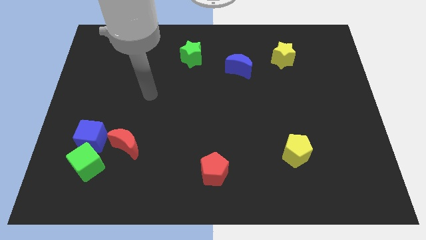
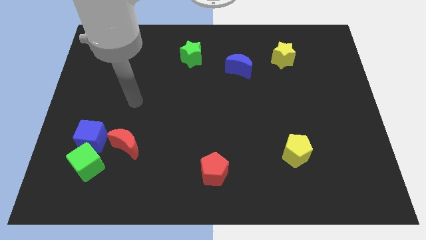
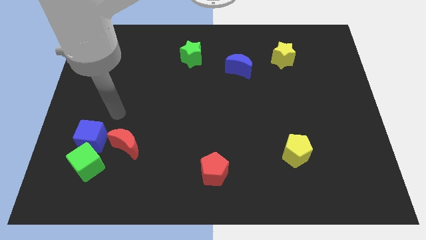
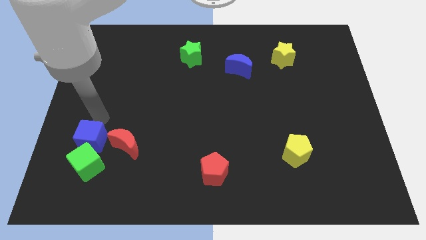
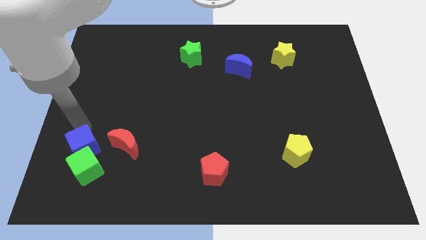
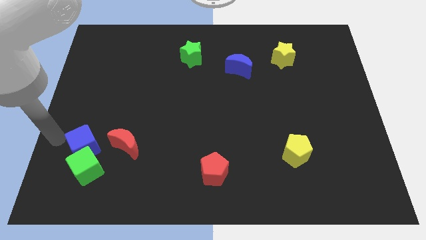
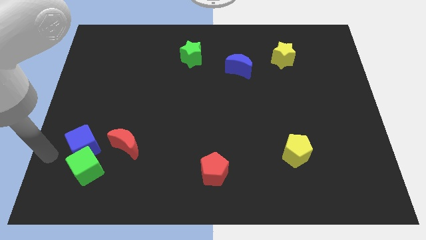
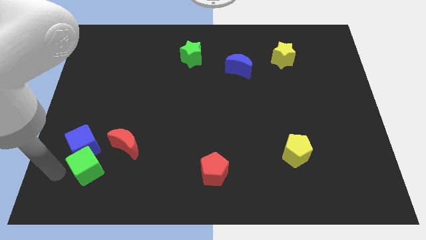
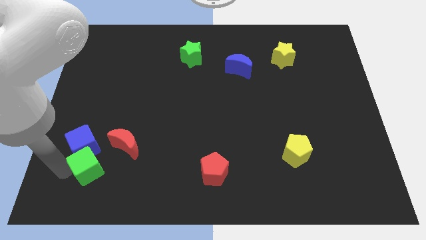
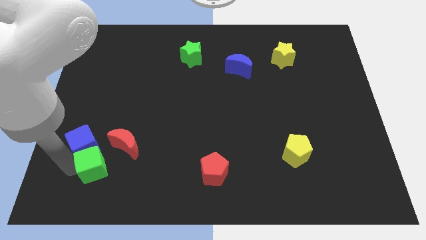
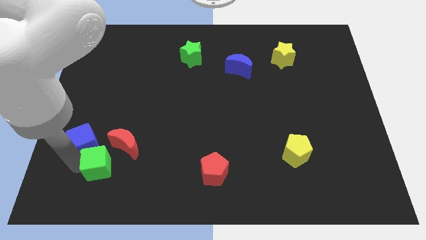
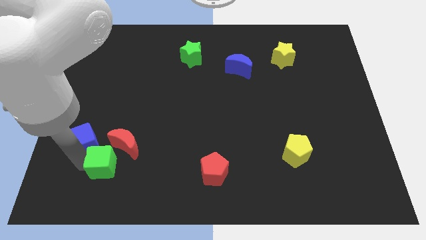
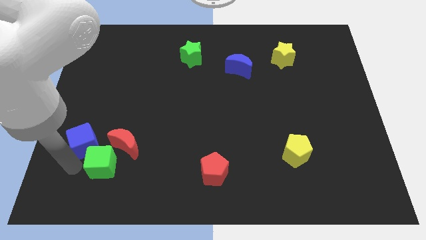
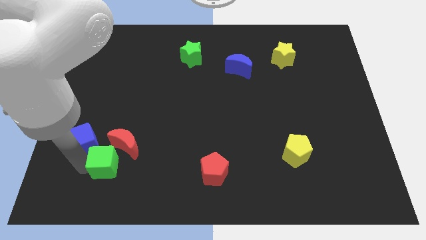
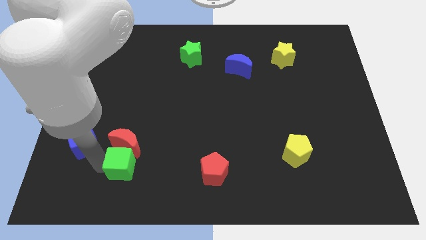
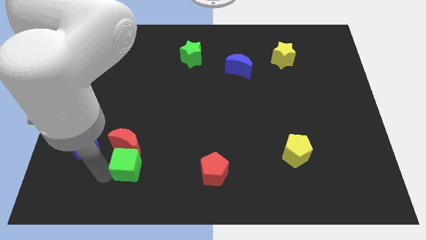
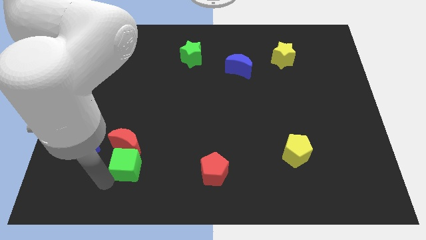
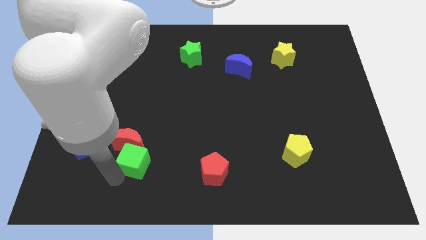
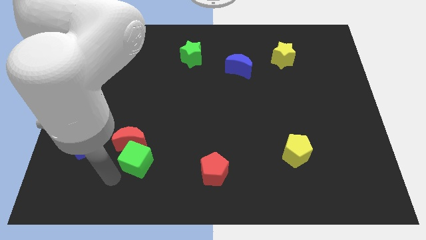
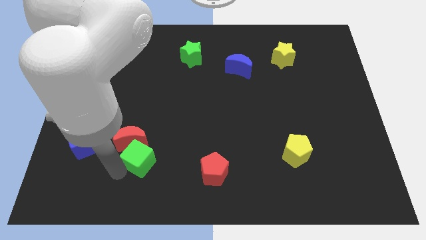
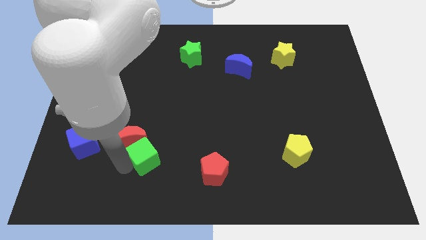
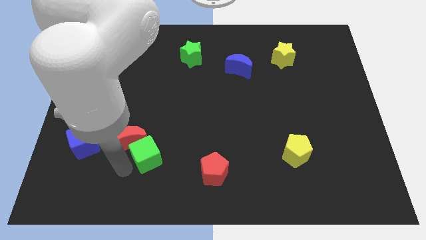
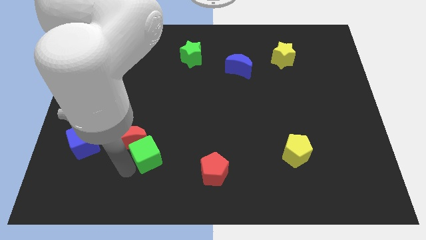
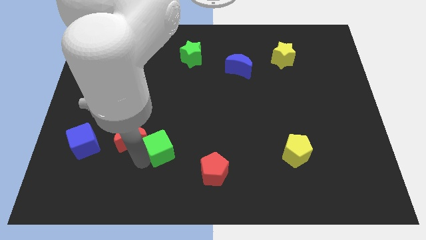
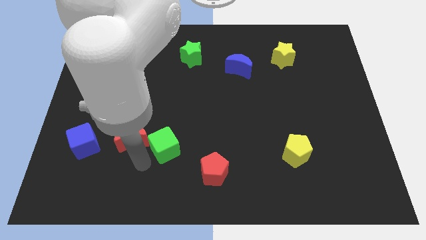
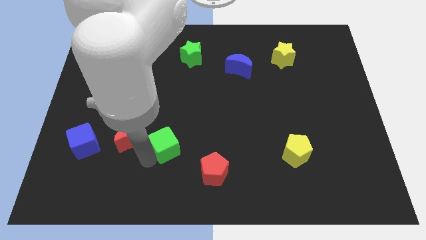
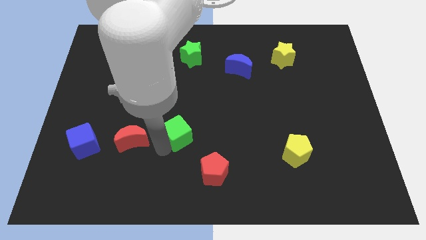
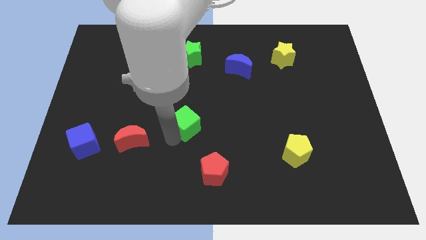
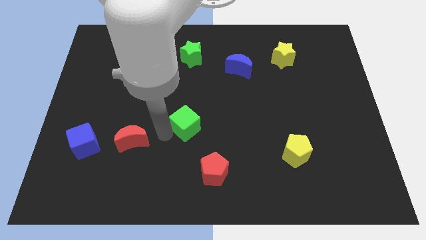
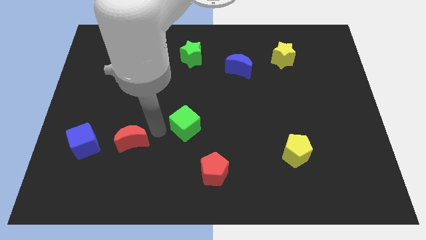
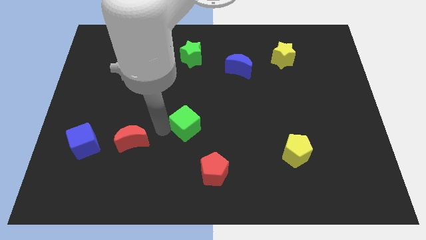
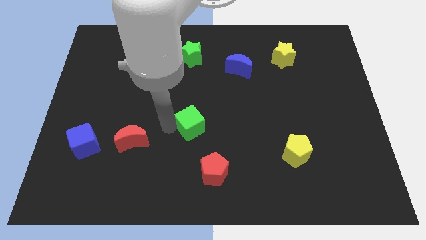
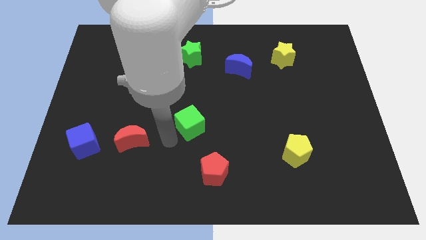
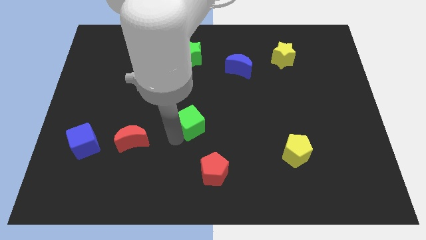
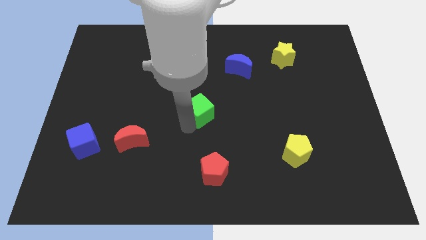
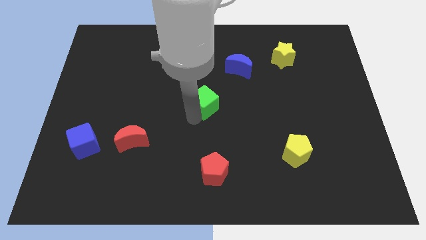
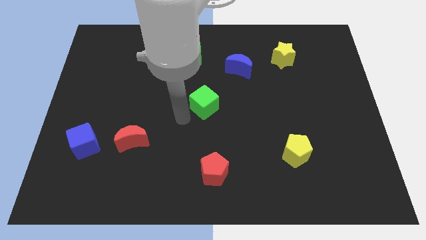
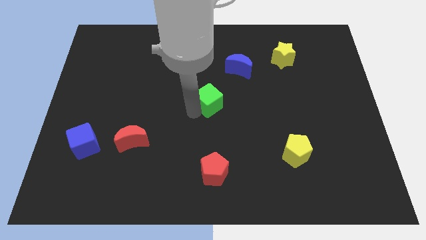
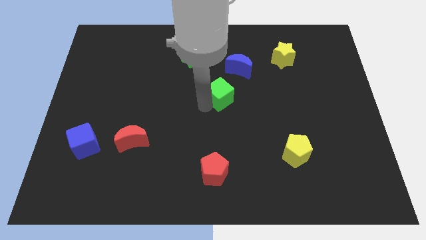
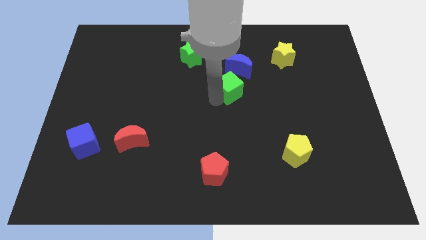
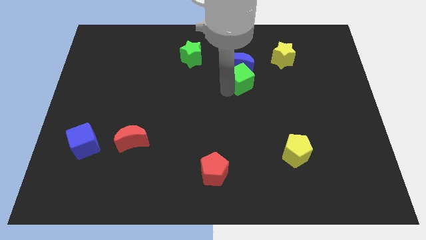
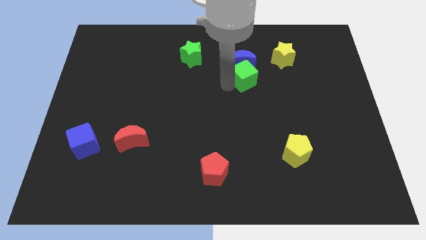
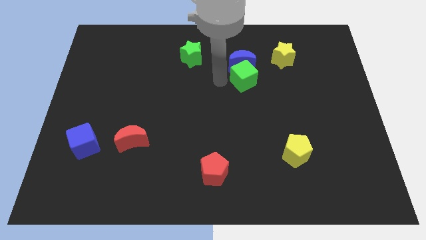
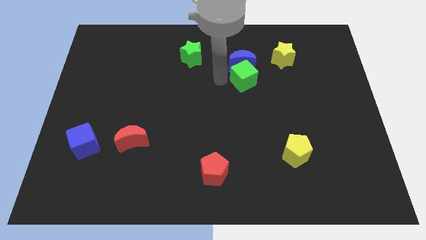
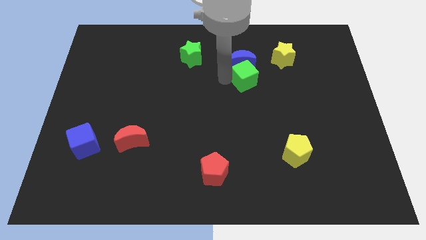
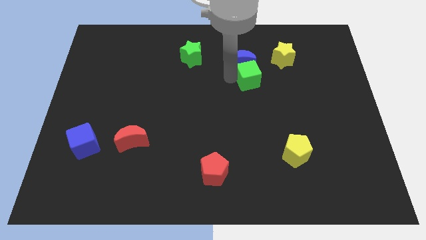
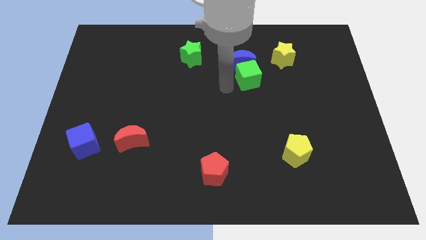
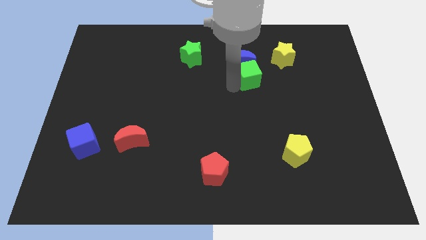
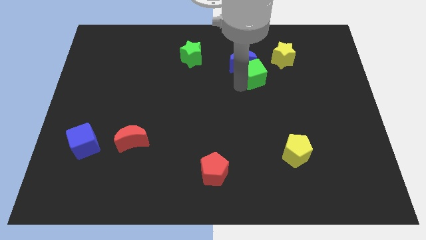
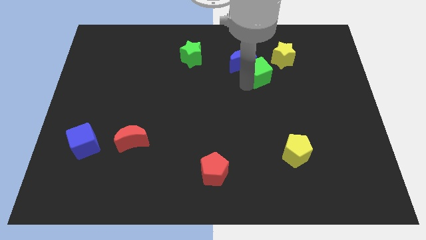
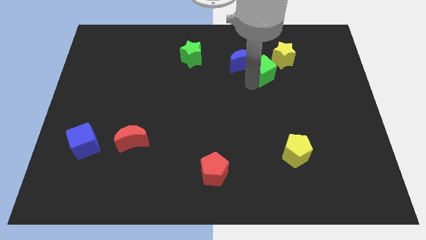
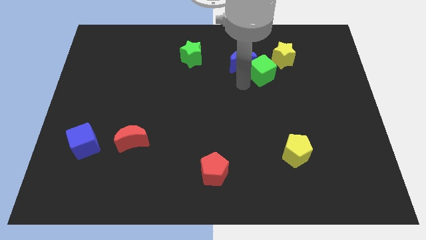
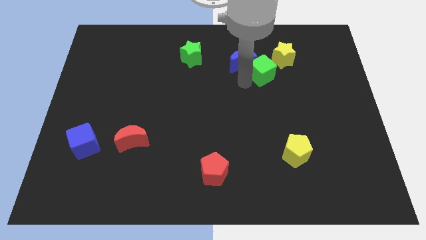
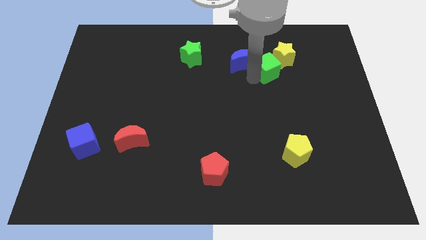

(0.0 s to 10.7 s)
put the green cube to the yellow star
